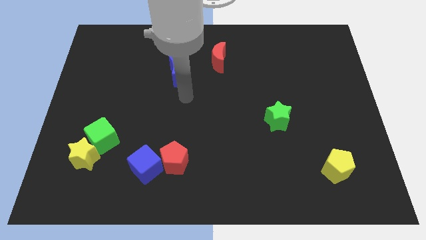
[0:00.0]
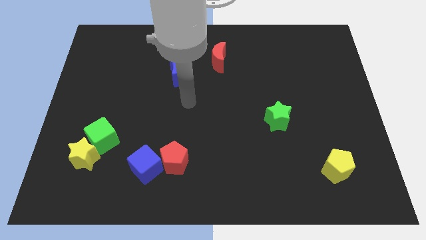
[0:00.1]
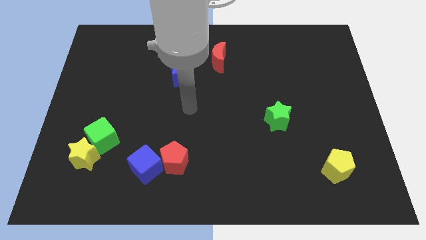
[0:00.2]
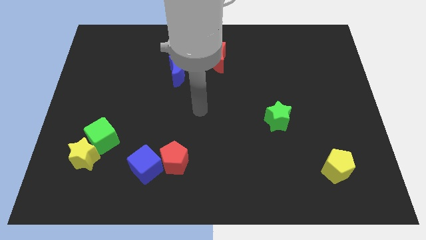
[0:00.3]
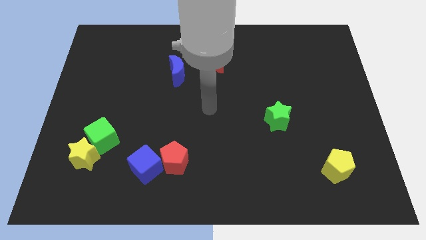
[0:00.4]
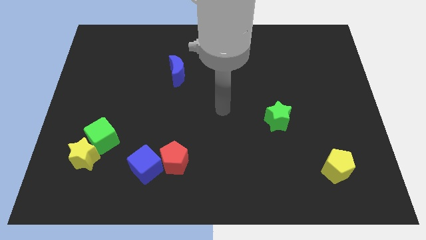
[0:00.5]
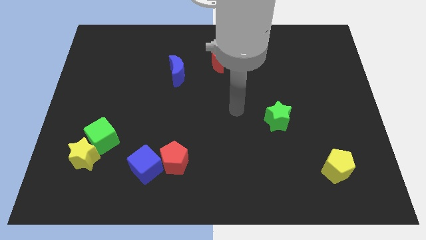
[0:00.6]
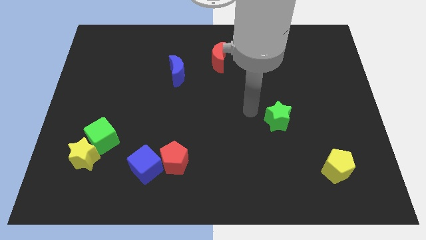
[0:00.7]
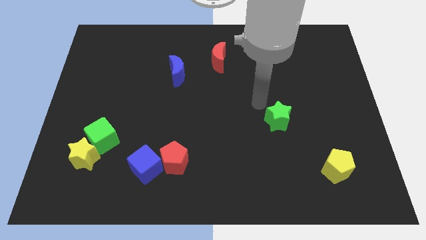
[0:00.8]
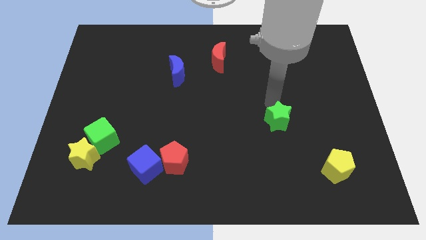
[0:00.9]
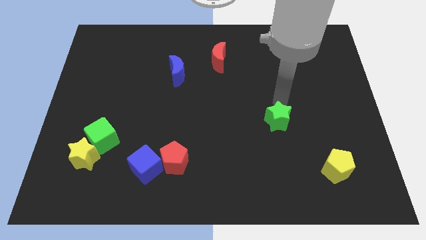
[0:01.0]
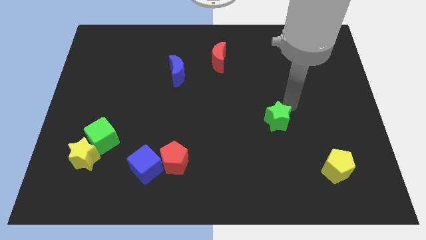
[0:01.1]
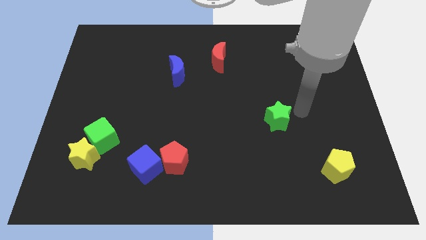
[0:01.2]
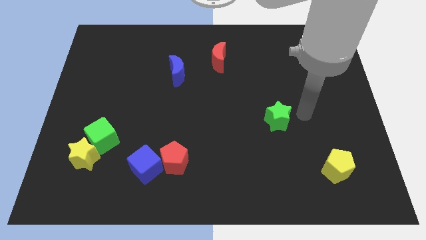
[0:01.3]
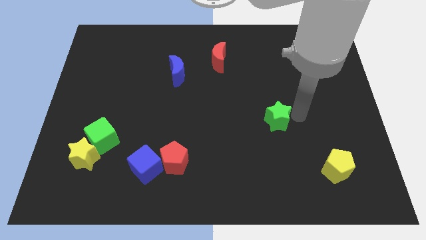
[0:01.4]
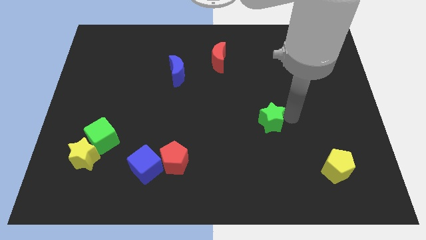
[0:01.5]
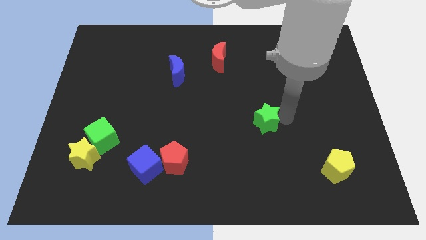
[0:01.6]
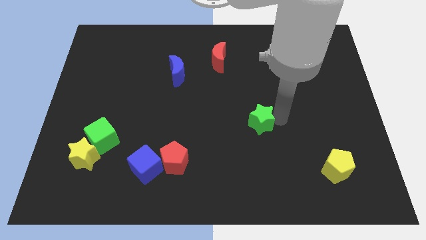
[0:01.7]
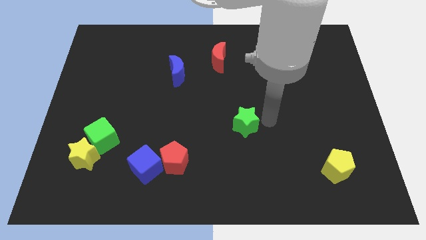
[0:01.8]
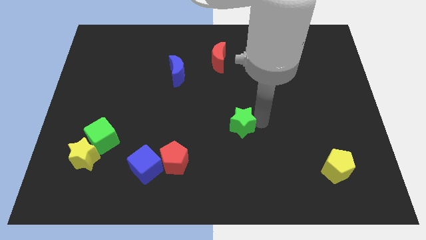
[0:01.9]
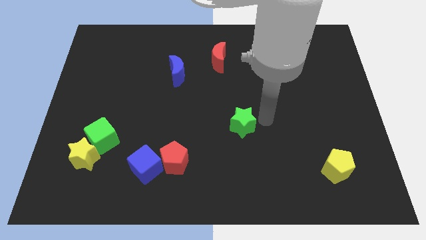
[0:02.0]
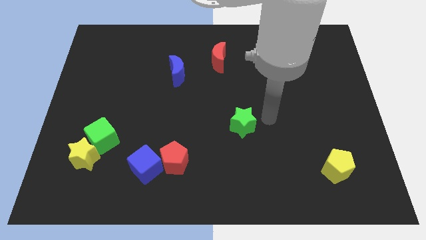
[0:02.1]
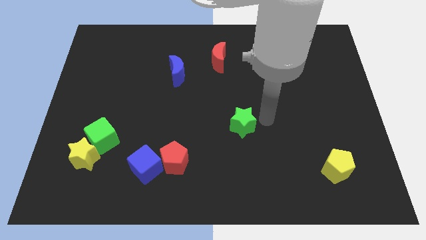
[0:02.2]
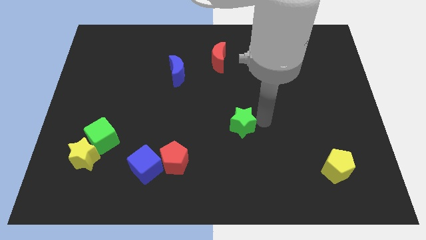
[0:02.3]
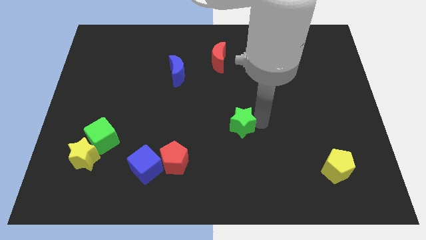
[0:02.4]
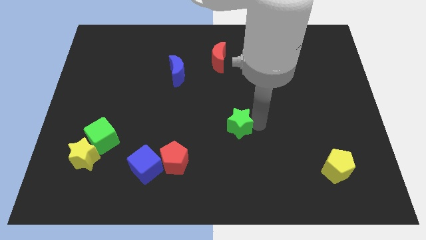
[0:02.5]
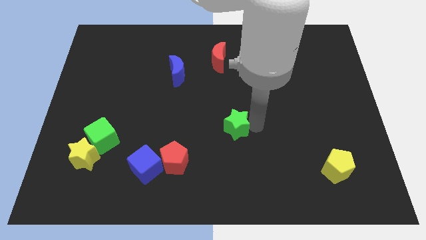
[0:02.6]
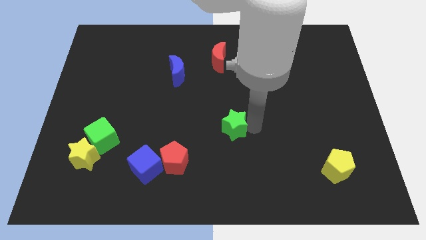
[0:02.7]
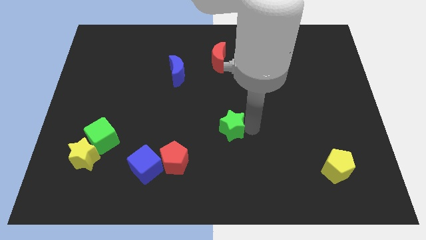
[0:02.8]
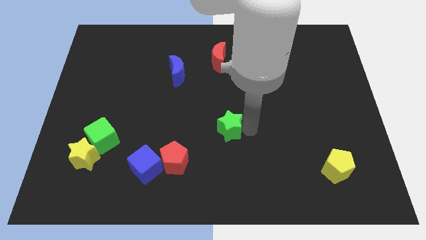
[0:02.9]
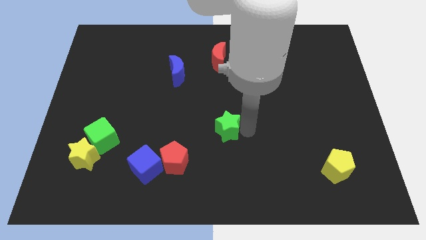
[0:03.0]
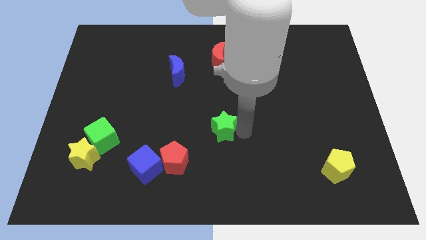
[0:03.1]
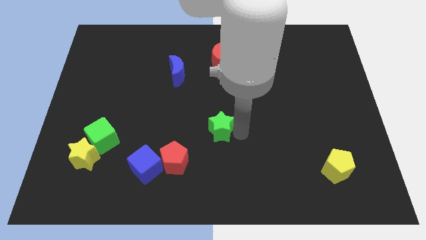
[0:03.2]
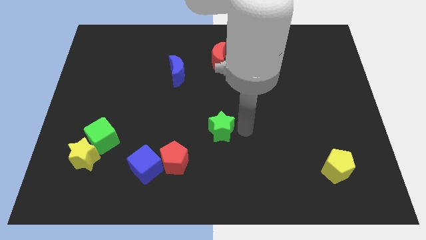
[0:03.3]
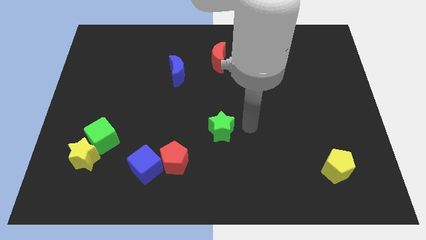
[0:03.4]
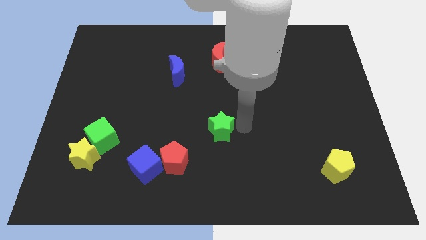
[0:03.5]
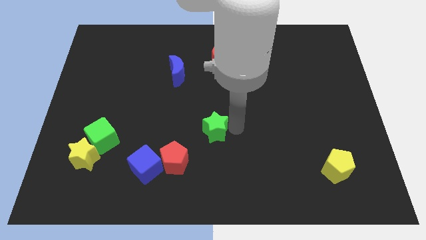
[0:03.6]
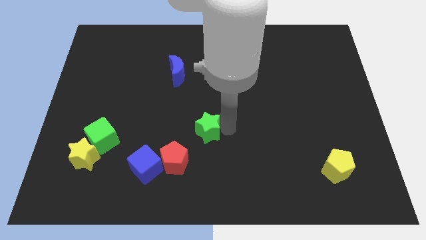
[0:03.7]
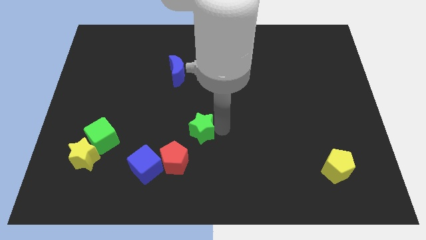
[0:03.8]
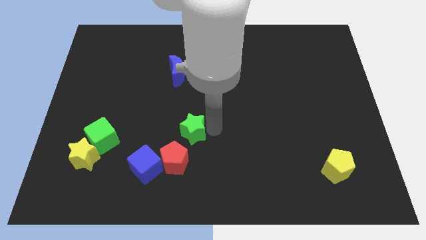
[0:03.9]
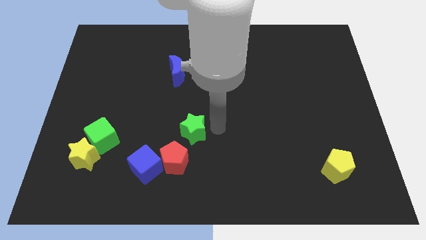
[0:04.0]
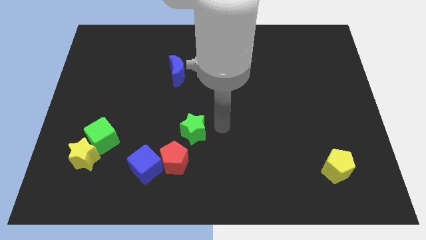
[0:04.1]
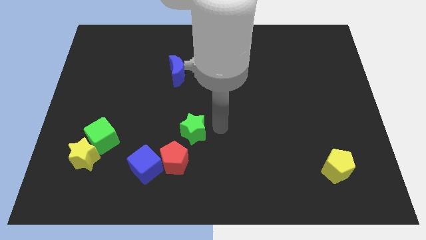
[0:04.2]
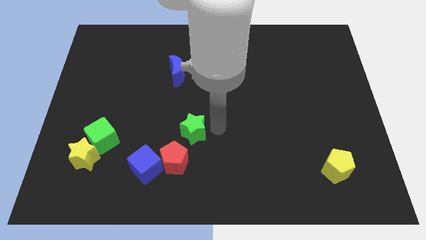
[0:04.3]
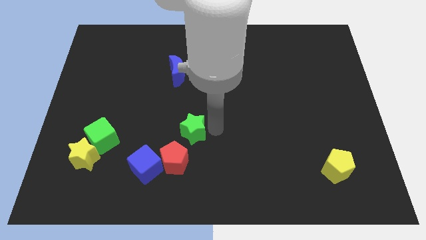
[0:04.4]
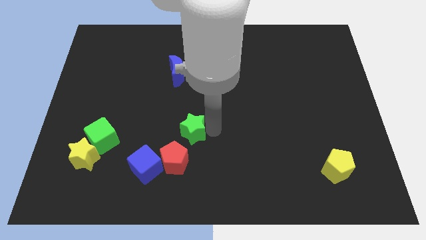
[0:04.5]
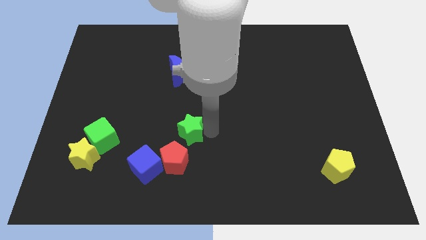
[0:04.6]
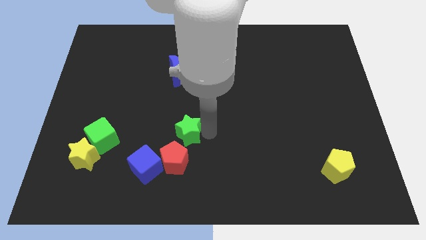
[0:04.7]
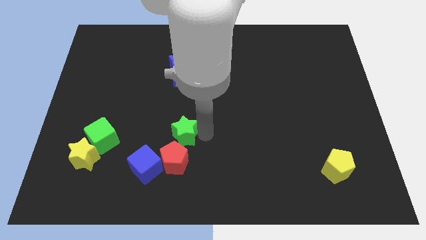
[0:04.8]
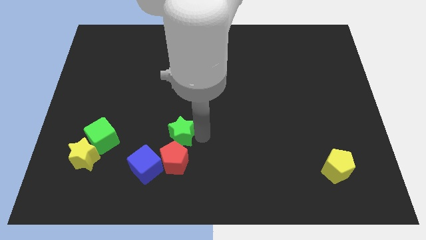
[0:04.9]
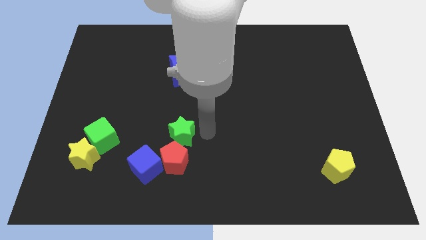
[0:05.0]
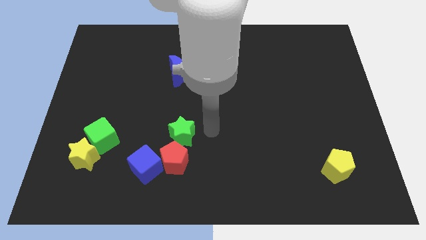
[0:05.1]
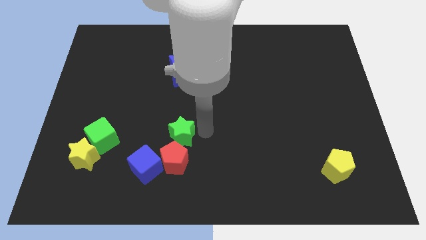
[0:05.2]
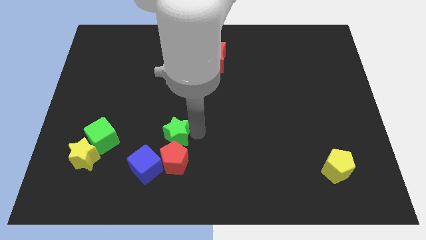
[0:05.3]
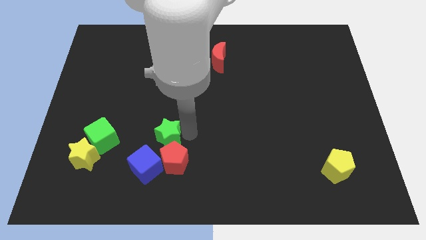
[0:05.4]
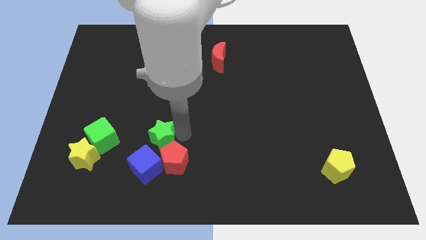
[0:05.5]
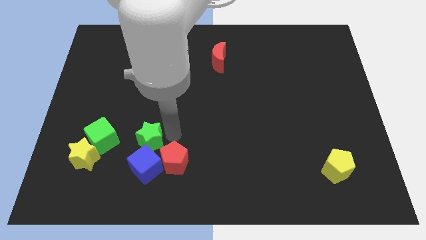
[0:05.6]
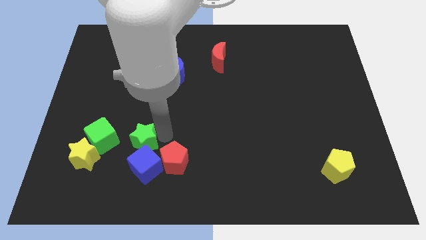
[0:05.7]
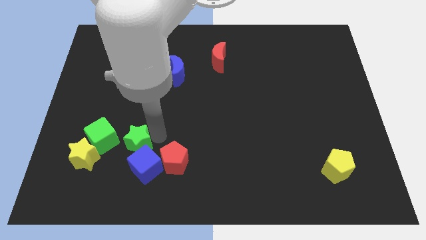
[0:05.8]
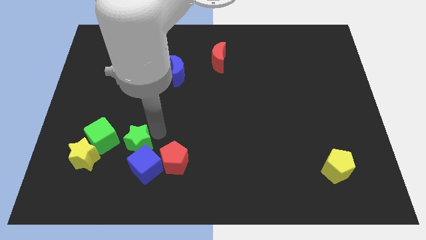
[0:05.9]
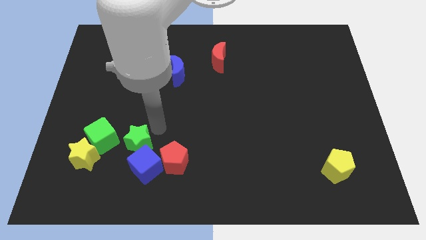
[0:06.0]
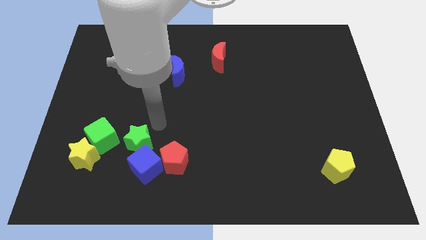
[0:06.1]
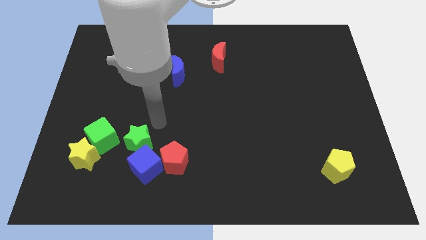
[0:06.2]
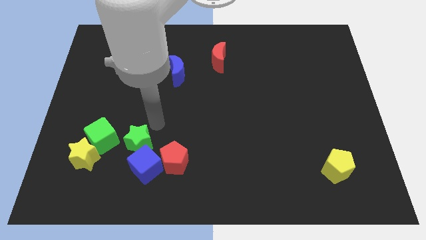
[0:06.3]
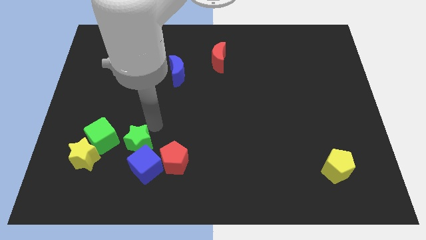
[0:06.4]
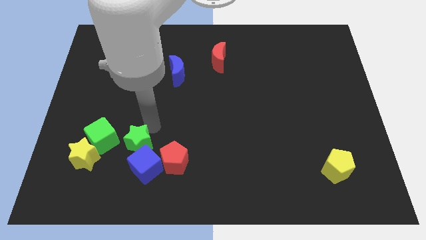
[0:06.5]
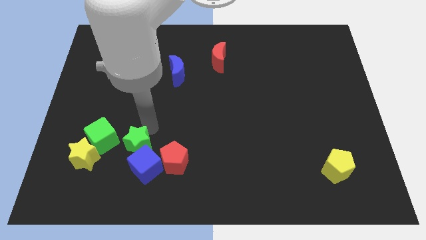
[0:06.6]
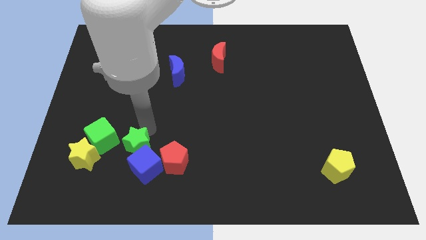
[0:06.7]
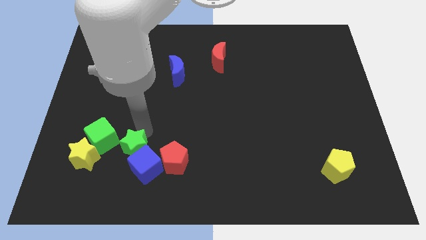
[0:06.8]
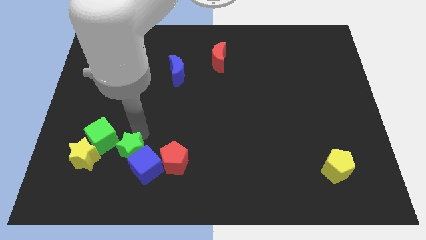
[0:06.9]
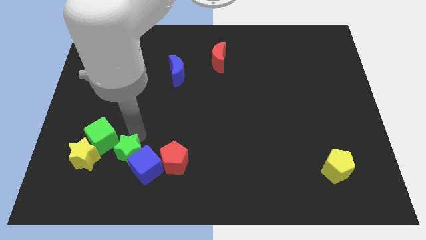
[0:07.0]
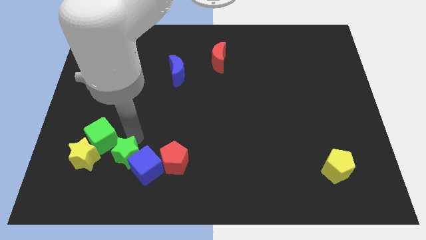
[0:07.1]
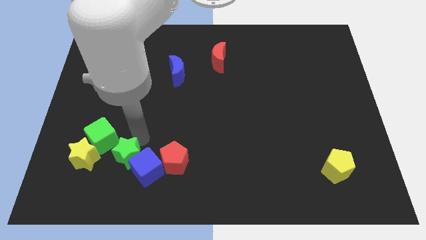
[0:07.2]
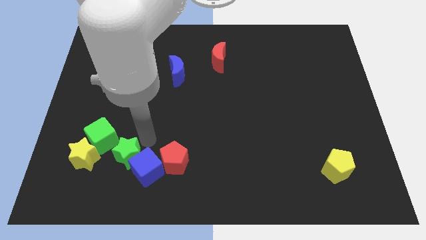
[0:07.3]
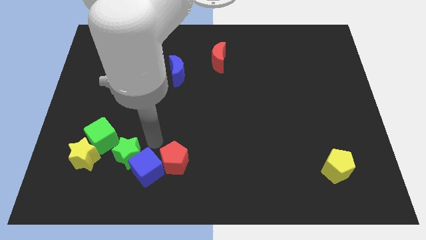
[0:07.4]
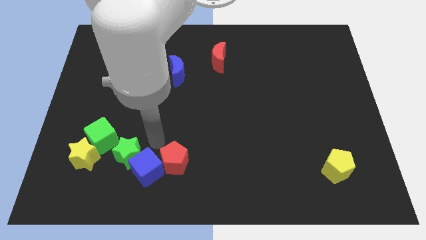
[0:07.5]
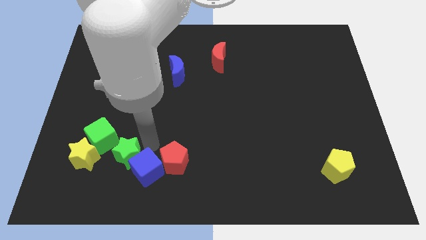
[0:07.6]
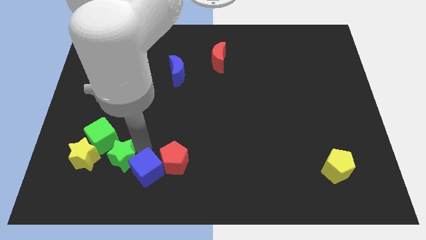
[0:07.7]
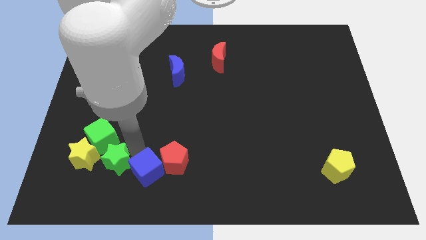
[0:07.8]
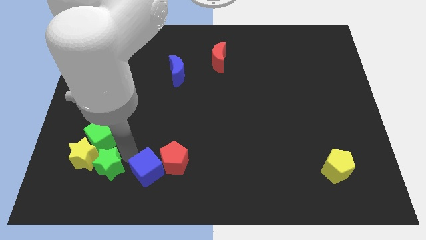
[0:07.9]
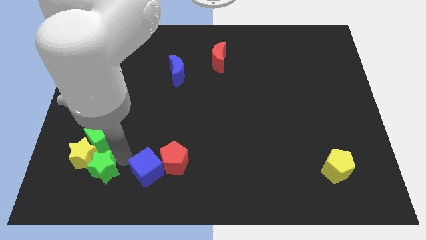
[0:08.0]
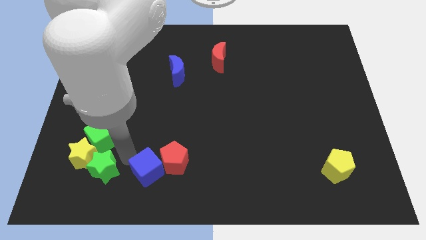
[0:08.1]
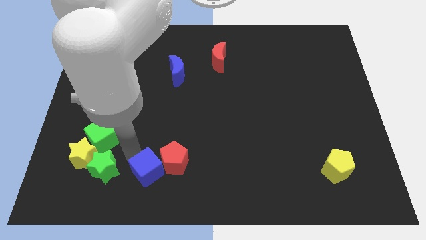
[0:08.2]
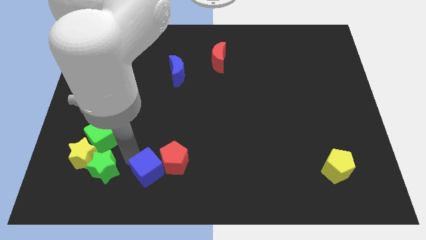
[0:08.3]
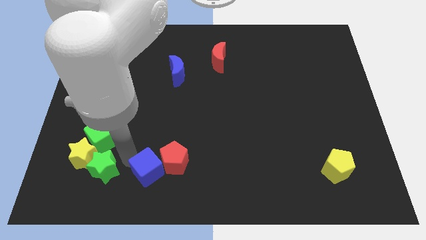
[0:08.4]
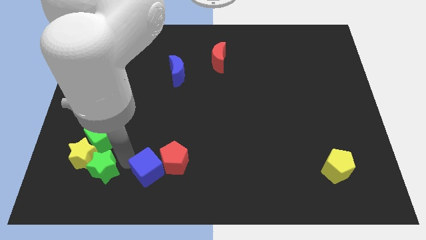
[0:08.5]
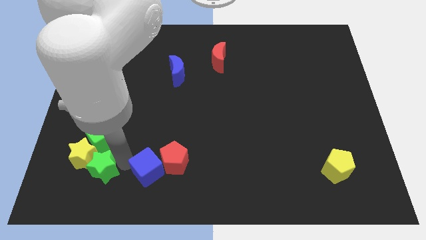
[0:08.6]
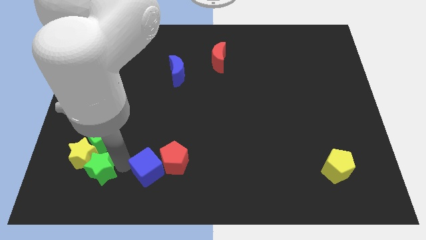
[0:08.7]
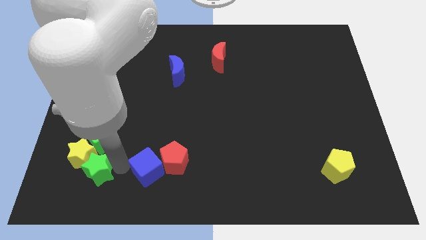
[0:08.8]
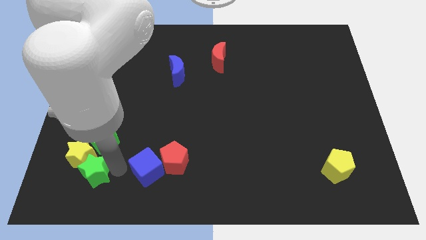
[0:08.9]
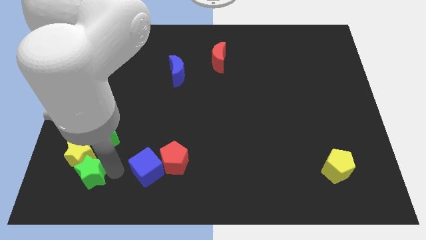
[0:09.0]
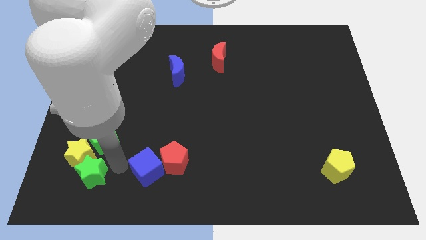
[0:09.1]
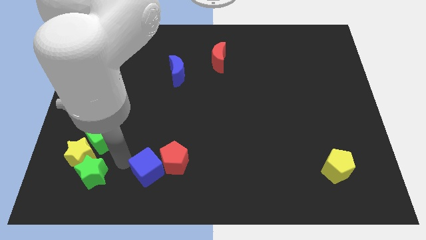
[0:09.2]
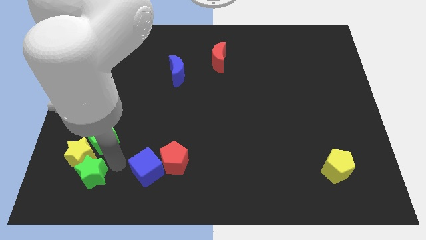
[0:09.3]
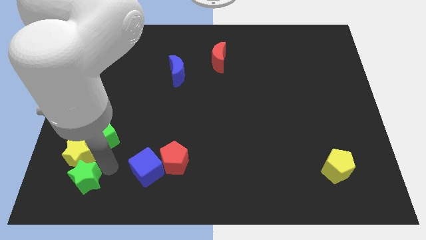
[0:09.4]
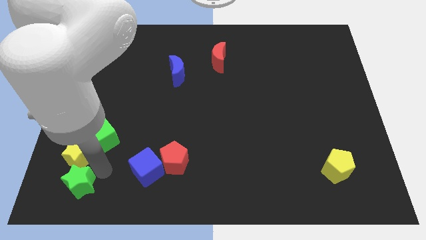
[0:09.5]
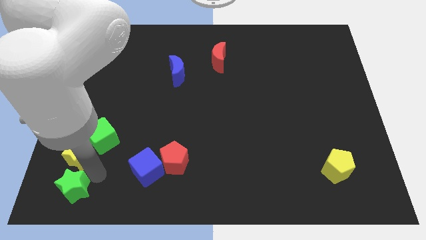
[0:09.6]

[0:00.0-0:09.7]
slide the green star to the lower left corner
